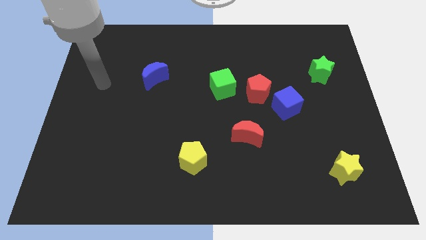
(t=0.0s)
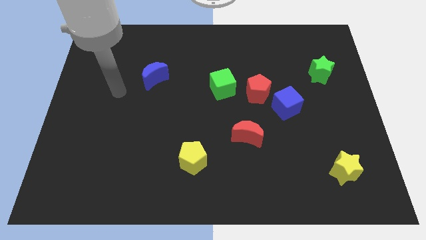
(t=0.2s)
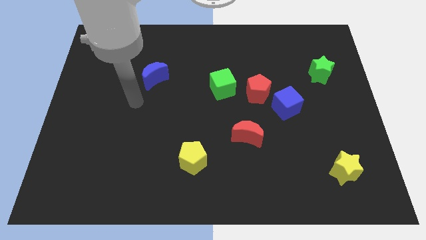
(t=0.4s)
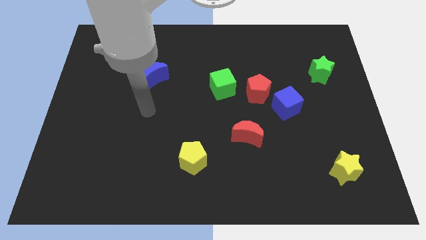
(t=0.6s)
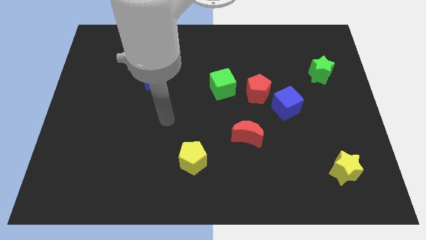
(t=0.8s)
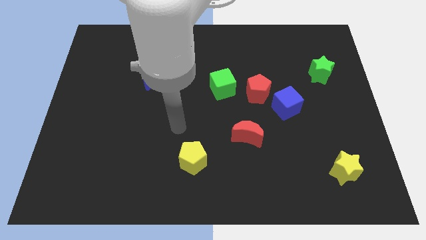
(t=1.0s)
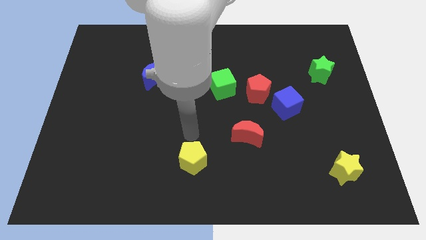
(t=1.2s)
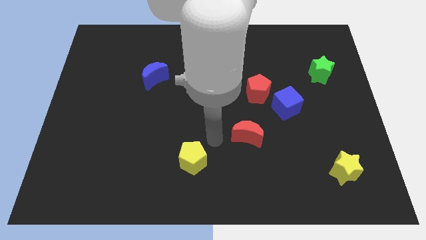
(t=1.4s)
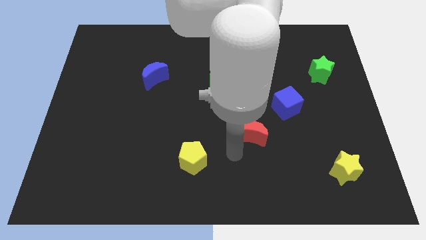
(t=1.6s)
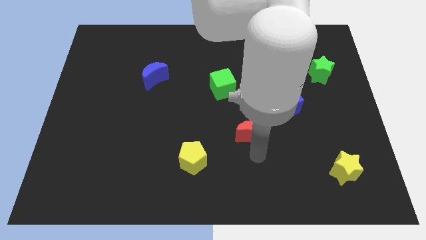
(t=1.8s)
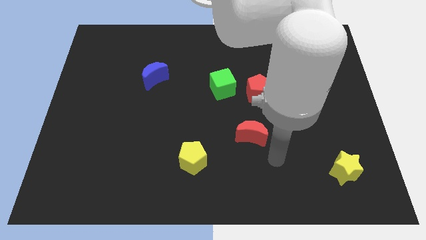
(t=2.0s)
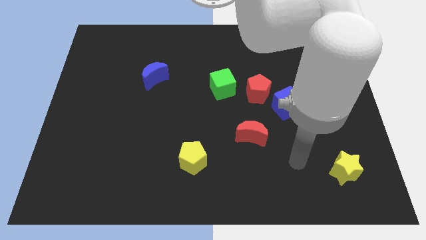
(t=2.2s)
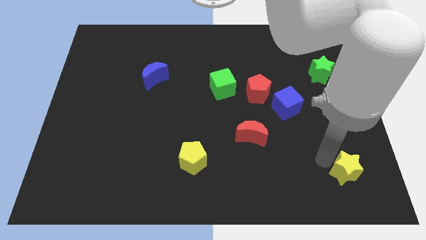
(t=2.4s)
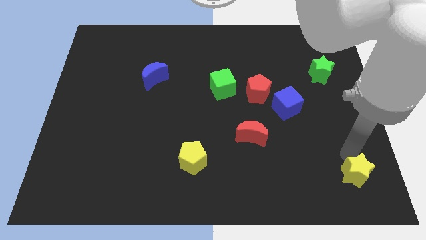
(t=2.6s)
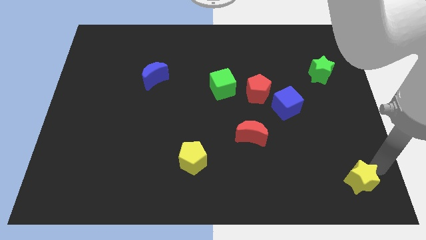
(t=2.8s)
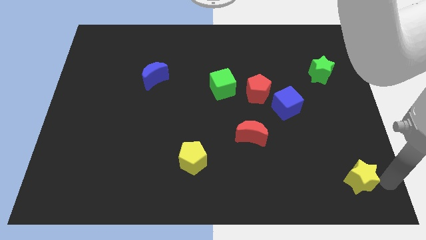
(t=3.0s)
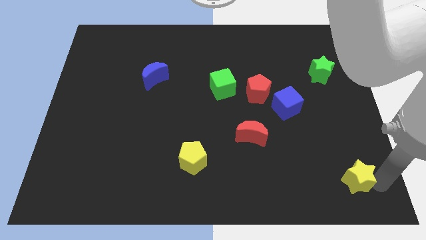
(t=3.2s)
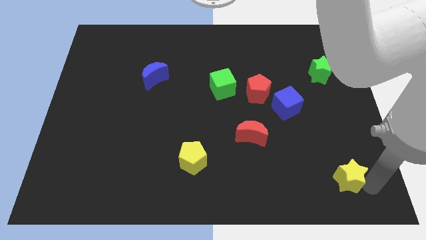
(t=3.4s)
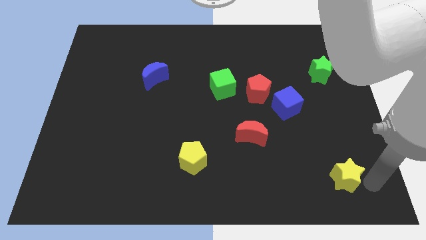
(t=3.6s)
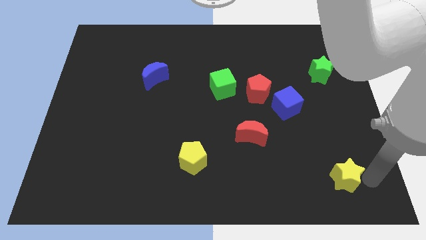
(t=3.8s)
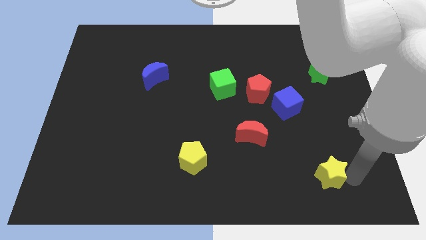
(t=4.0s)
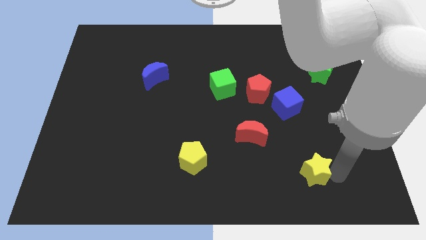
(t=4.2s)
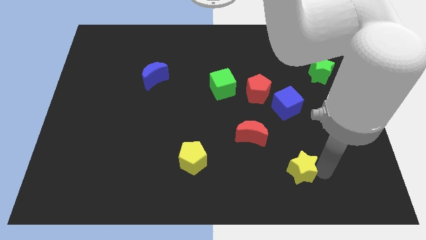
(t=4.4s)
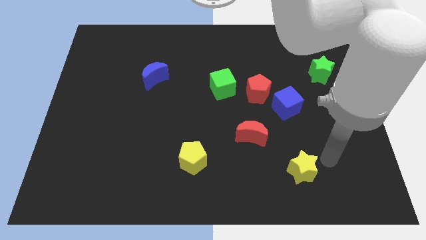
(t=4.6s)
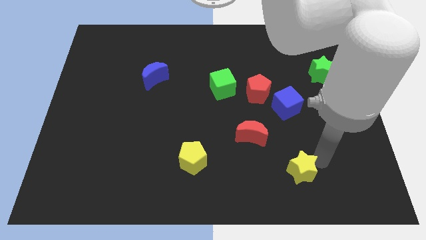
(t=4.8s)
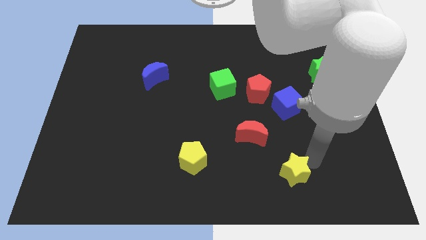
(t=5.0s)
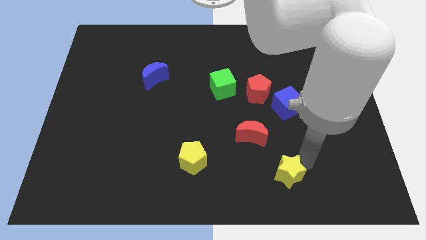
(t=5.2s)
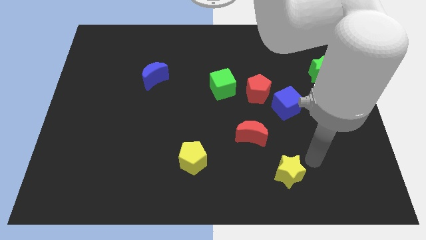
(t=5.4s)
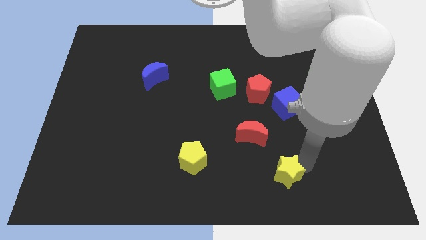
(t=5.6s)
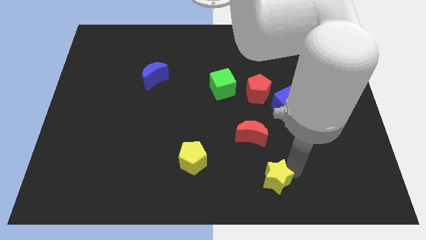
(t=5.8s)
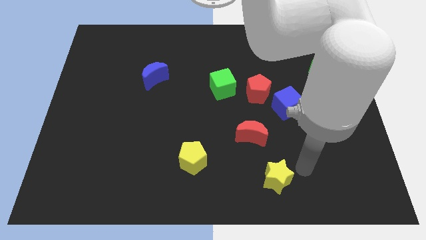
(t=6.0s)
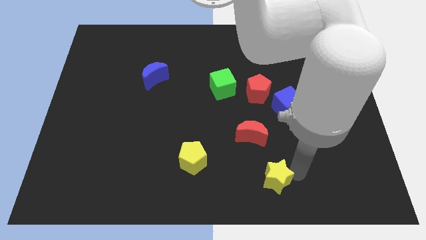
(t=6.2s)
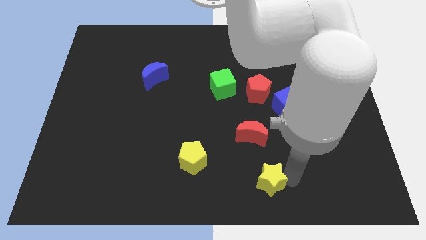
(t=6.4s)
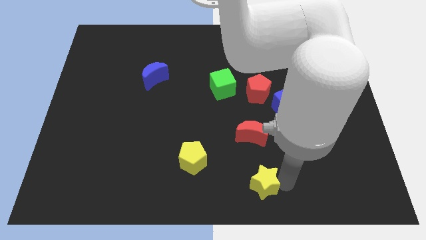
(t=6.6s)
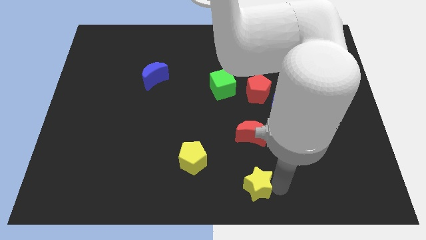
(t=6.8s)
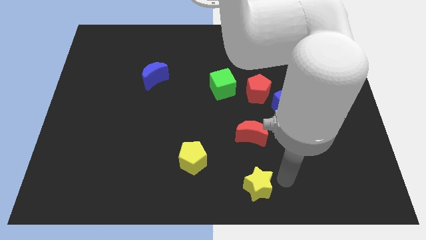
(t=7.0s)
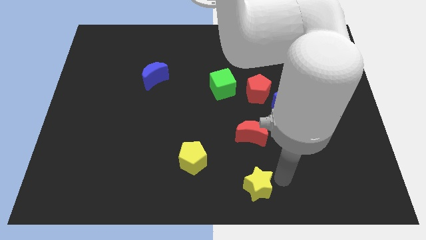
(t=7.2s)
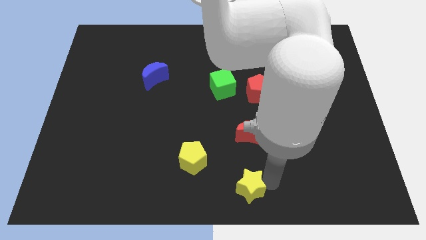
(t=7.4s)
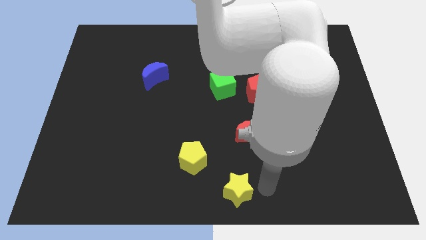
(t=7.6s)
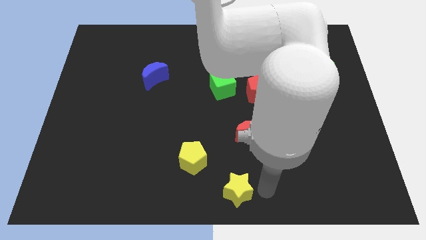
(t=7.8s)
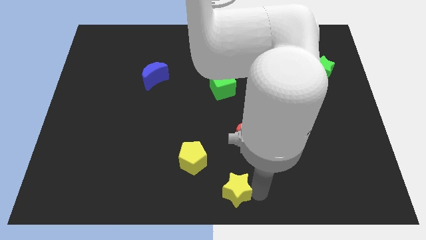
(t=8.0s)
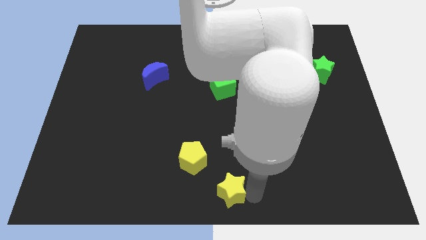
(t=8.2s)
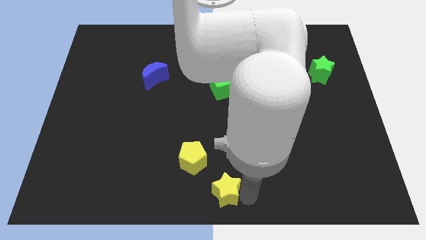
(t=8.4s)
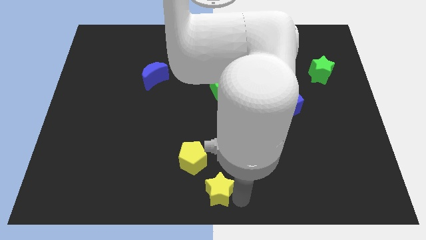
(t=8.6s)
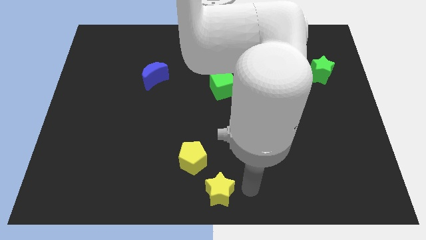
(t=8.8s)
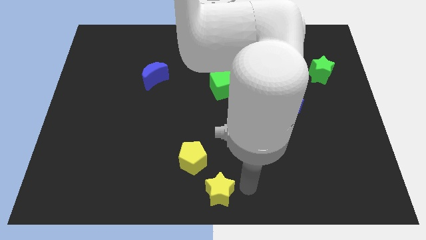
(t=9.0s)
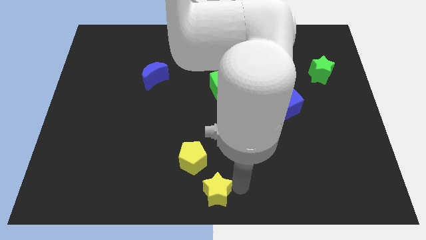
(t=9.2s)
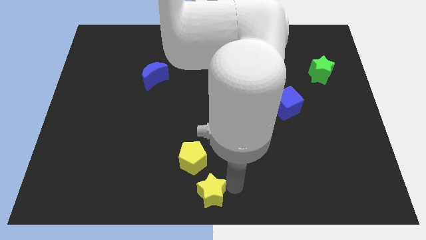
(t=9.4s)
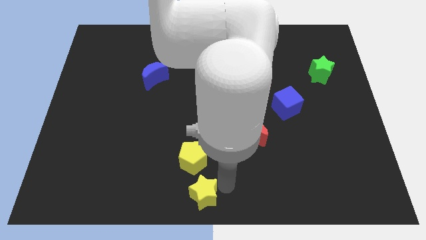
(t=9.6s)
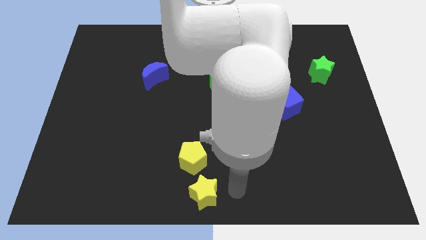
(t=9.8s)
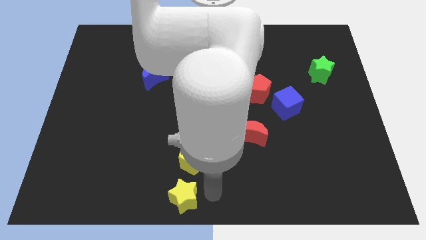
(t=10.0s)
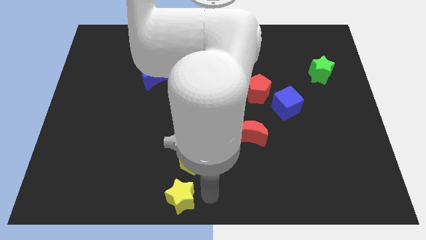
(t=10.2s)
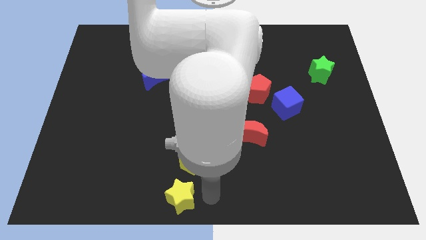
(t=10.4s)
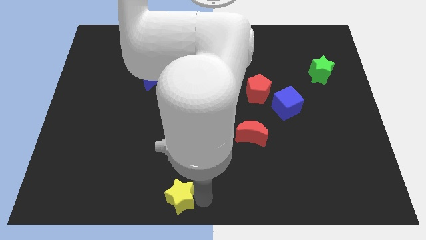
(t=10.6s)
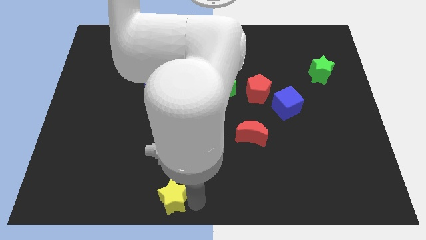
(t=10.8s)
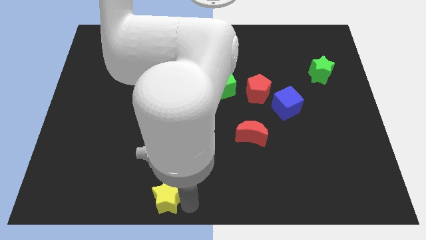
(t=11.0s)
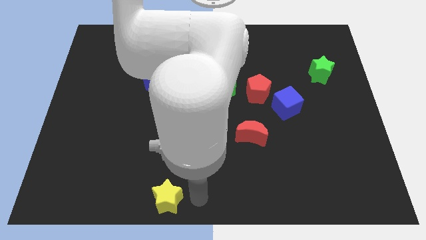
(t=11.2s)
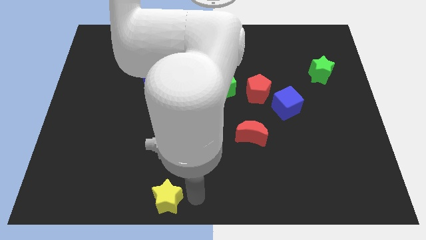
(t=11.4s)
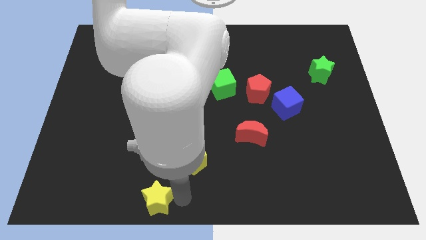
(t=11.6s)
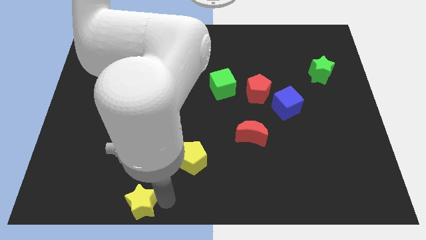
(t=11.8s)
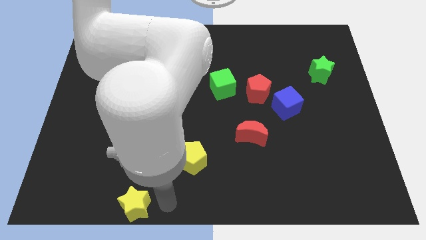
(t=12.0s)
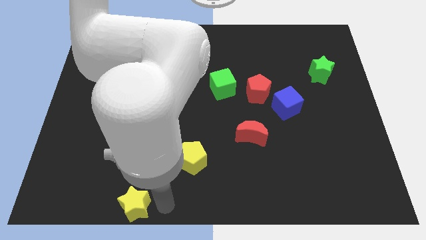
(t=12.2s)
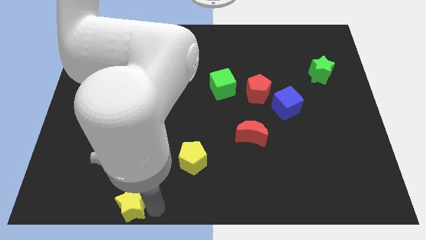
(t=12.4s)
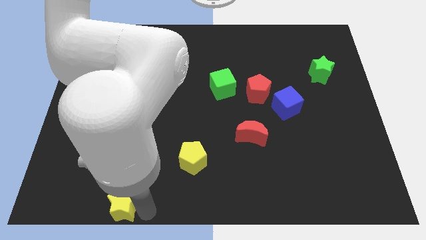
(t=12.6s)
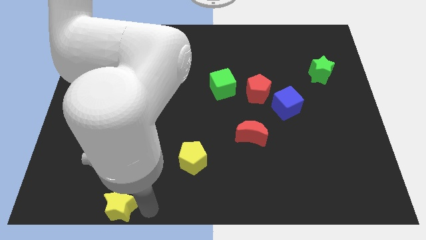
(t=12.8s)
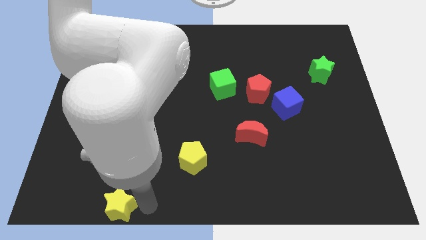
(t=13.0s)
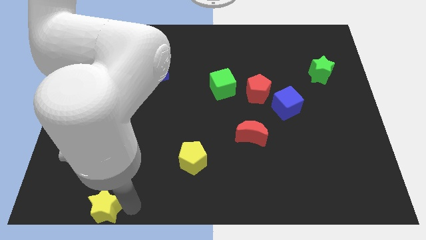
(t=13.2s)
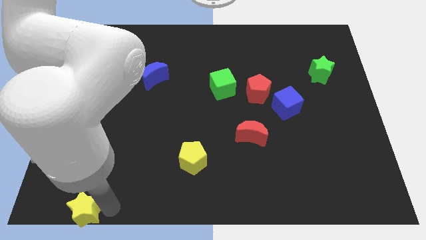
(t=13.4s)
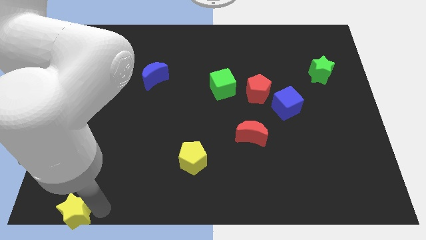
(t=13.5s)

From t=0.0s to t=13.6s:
move the yellow star to the bottom left corner
